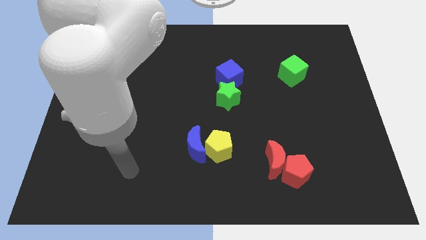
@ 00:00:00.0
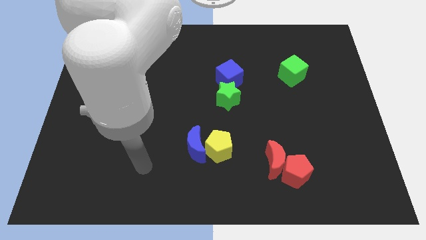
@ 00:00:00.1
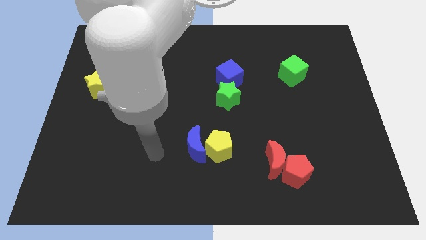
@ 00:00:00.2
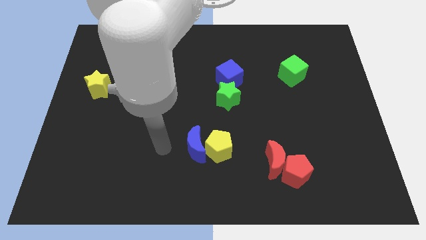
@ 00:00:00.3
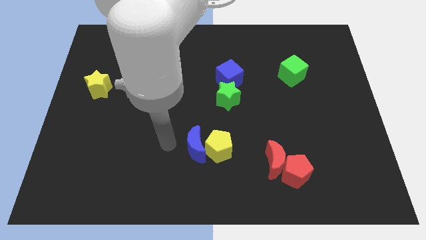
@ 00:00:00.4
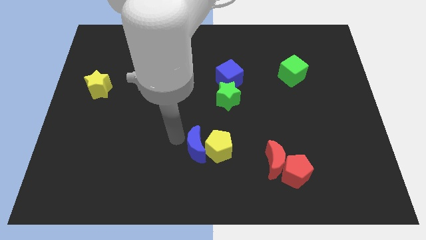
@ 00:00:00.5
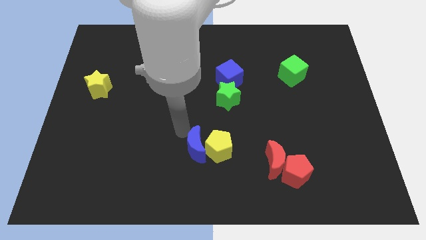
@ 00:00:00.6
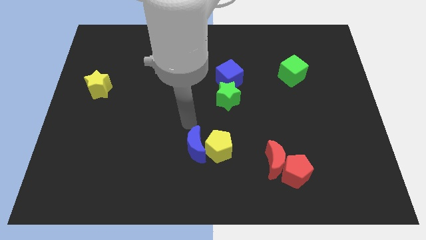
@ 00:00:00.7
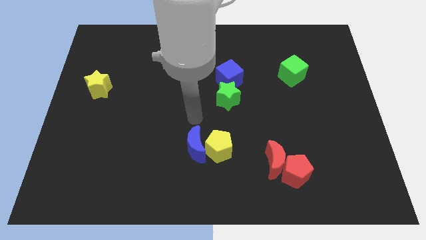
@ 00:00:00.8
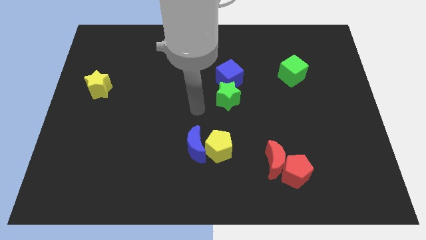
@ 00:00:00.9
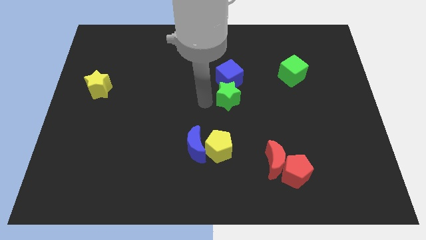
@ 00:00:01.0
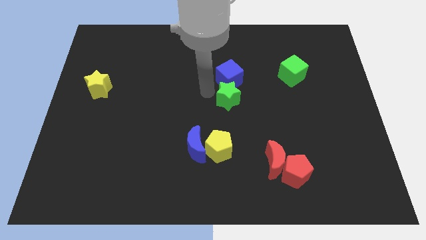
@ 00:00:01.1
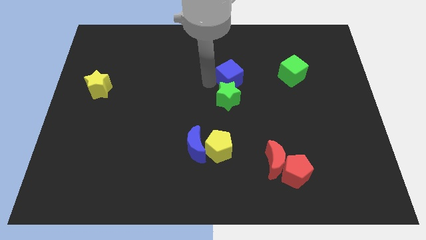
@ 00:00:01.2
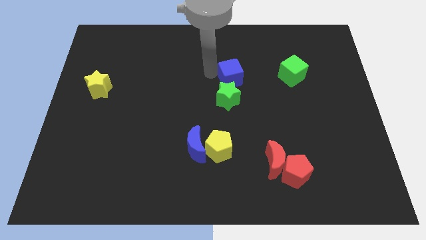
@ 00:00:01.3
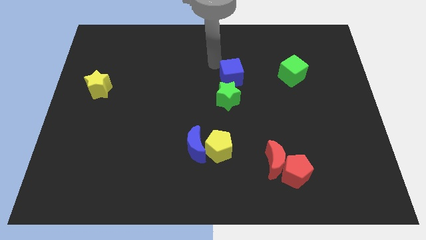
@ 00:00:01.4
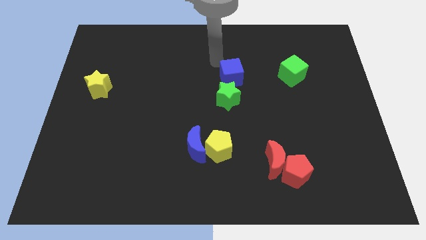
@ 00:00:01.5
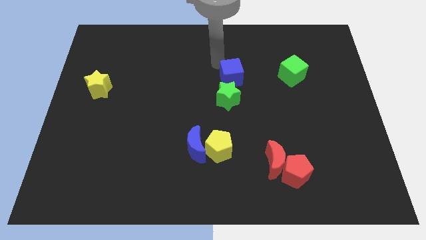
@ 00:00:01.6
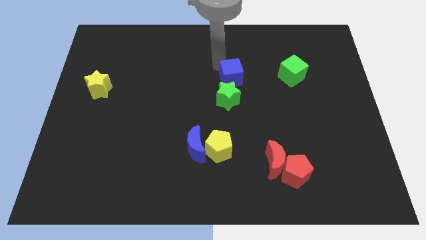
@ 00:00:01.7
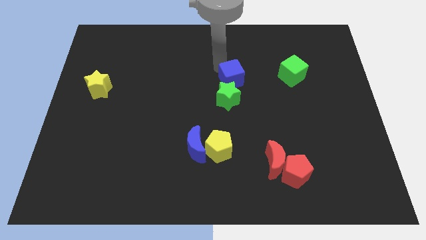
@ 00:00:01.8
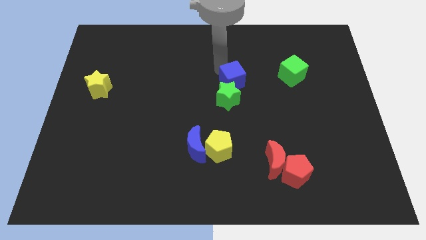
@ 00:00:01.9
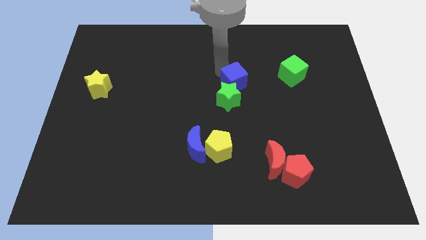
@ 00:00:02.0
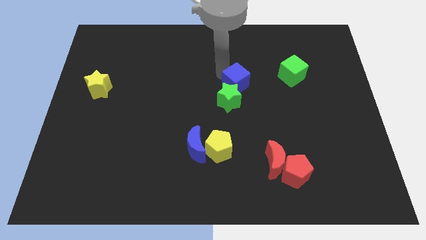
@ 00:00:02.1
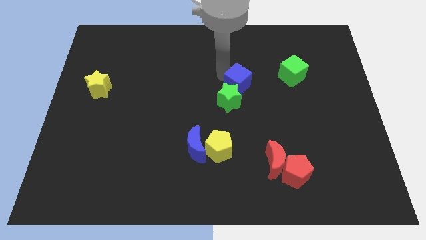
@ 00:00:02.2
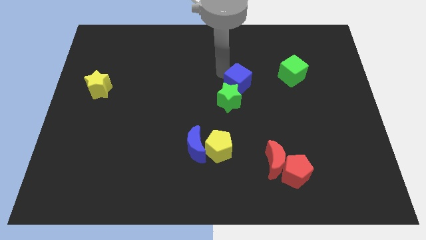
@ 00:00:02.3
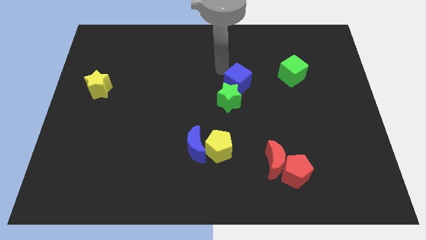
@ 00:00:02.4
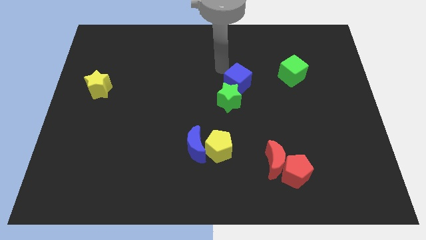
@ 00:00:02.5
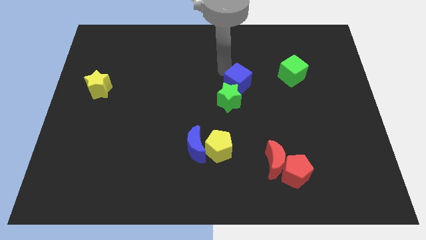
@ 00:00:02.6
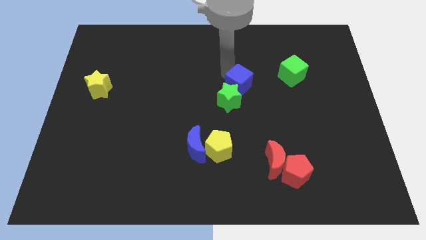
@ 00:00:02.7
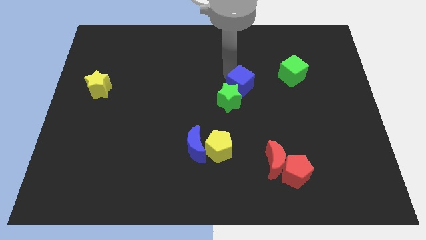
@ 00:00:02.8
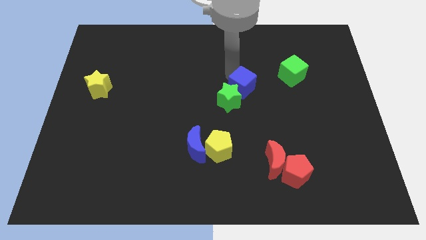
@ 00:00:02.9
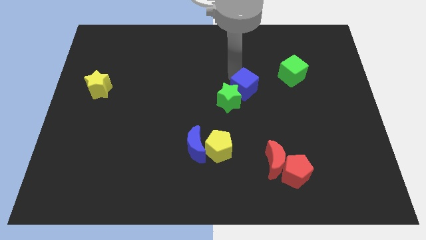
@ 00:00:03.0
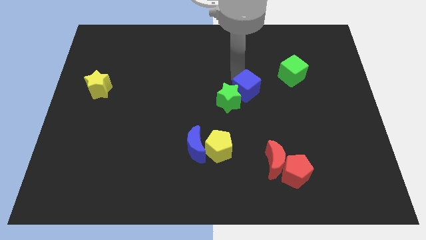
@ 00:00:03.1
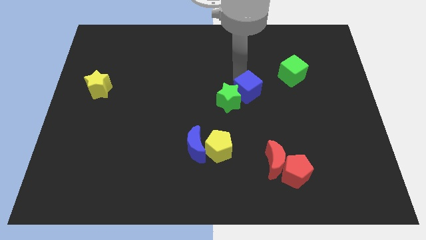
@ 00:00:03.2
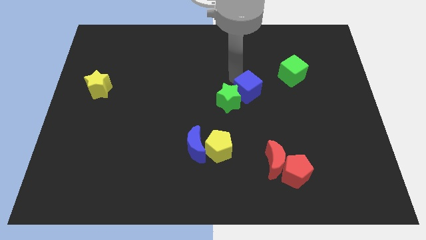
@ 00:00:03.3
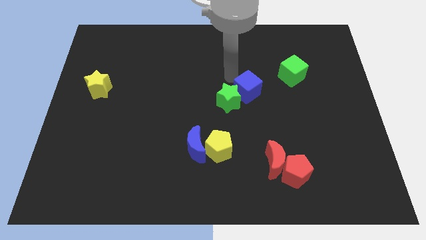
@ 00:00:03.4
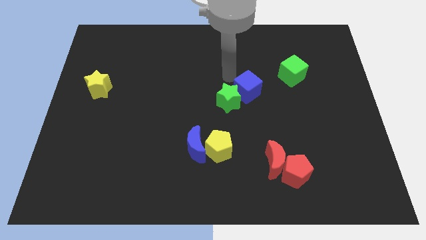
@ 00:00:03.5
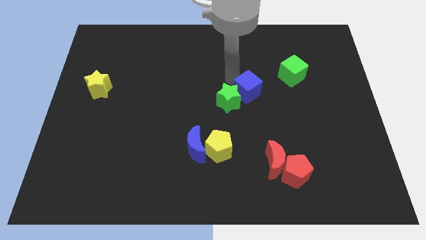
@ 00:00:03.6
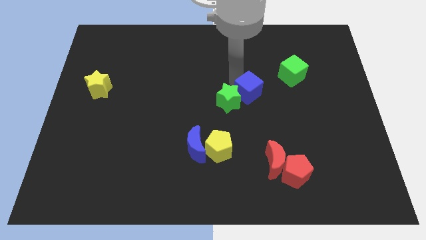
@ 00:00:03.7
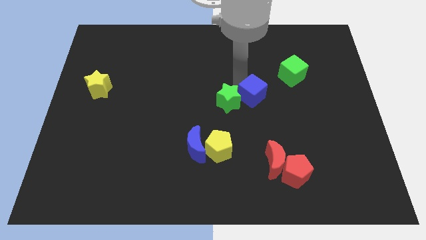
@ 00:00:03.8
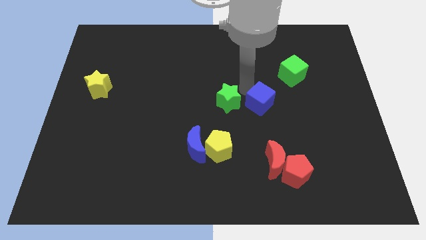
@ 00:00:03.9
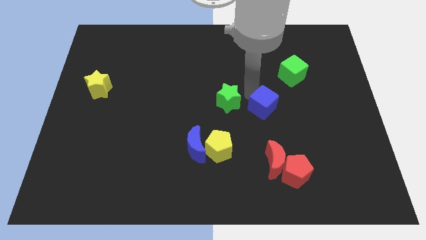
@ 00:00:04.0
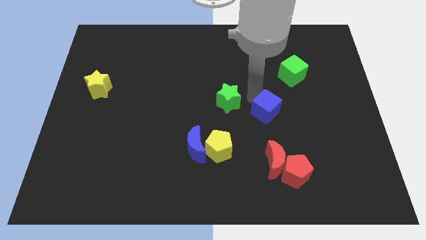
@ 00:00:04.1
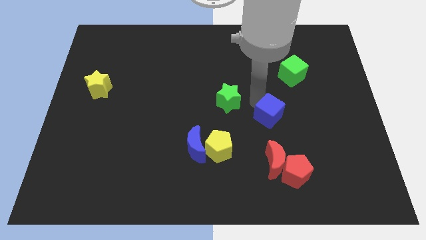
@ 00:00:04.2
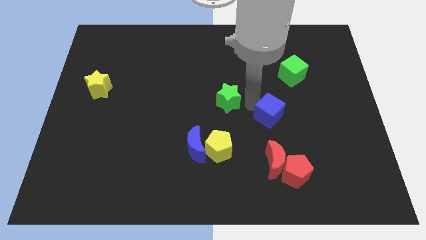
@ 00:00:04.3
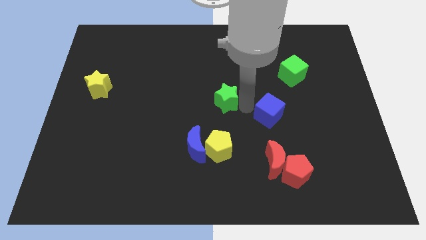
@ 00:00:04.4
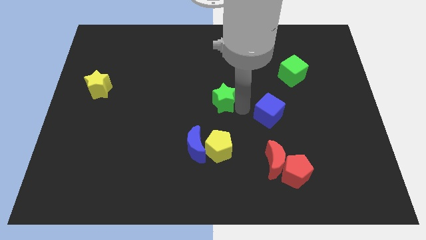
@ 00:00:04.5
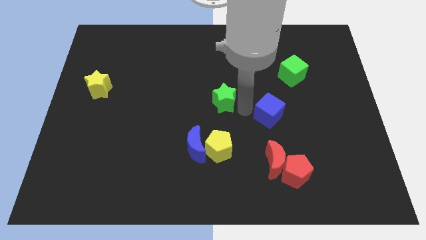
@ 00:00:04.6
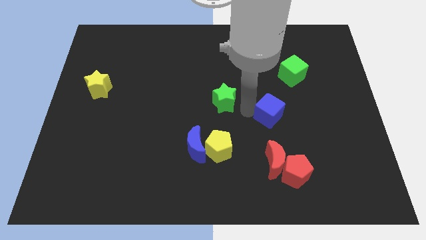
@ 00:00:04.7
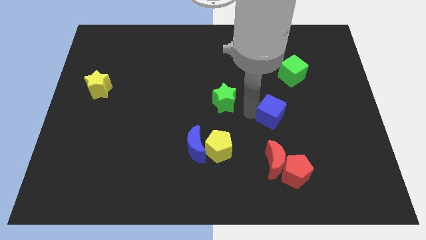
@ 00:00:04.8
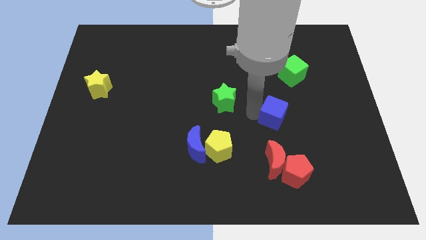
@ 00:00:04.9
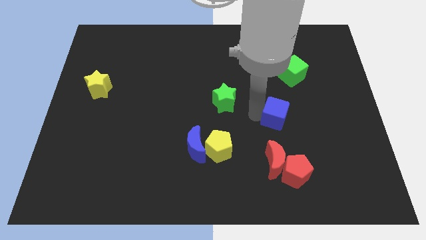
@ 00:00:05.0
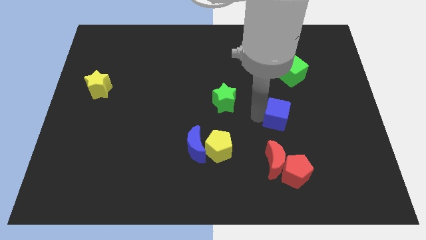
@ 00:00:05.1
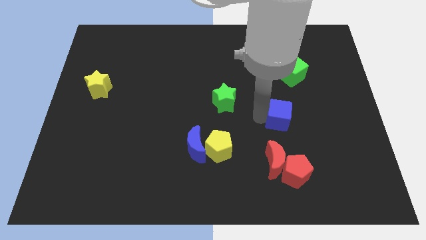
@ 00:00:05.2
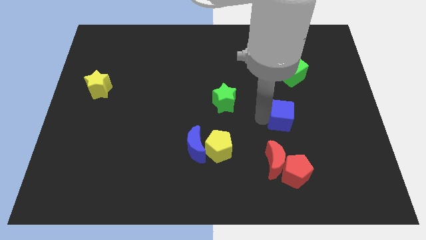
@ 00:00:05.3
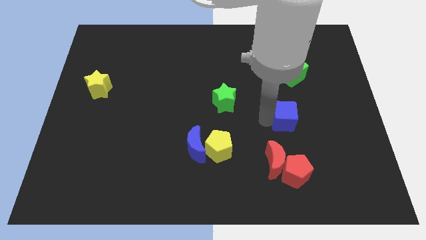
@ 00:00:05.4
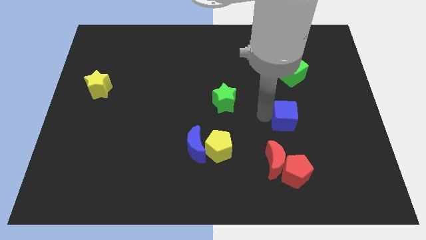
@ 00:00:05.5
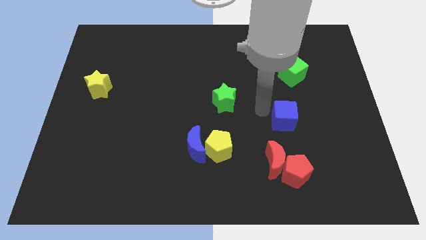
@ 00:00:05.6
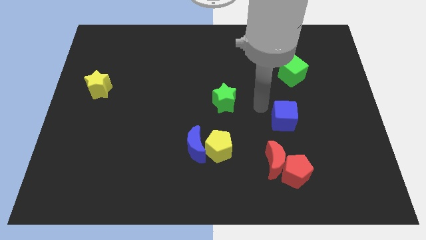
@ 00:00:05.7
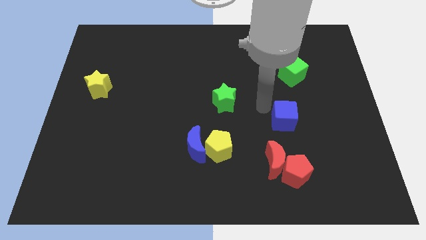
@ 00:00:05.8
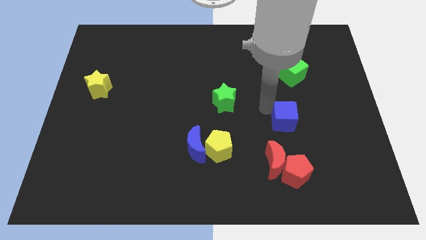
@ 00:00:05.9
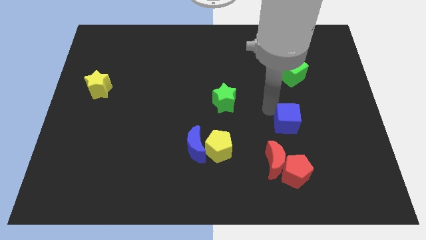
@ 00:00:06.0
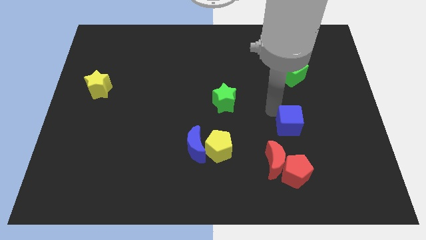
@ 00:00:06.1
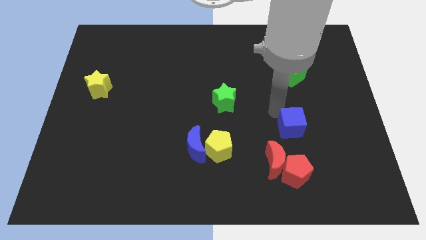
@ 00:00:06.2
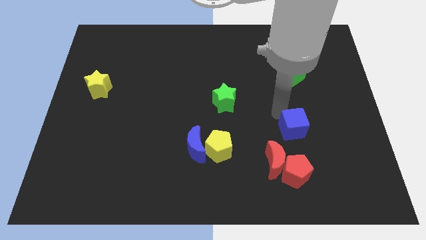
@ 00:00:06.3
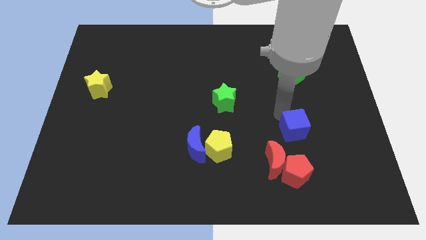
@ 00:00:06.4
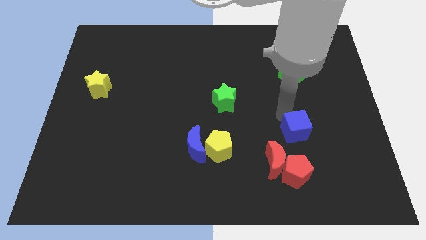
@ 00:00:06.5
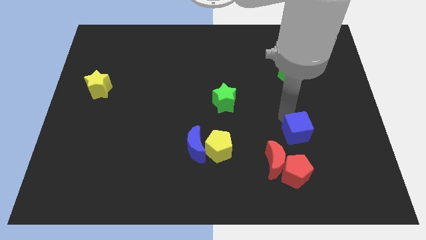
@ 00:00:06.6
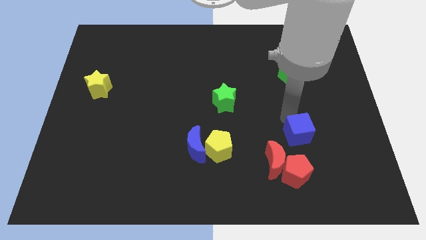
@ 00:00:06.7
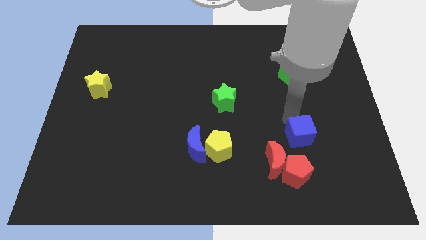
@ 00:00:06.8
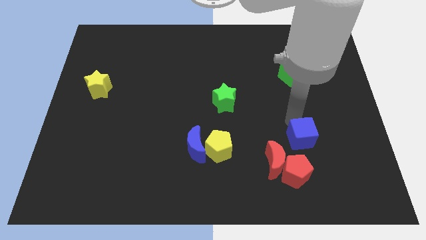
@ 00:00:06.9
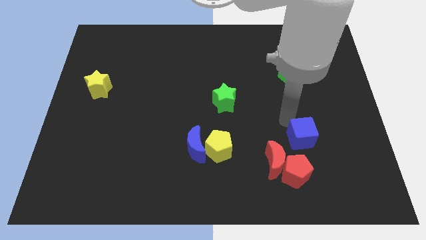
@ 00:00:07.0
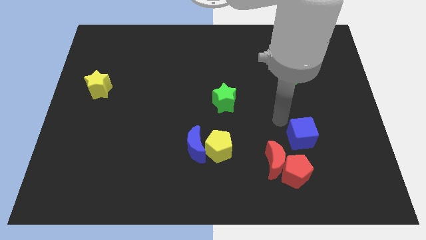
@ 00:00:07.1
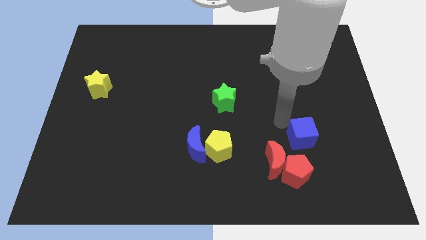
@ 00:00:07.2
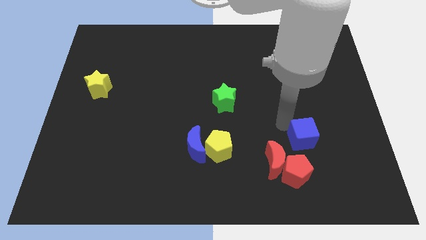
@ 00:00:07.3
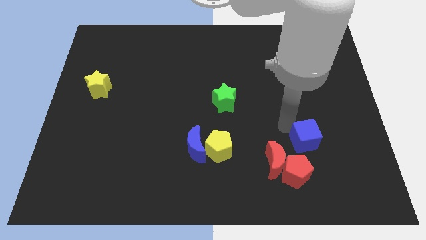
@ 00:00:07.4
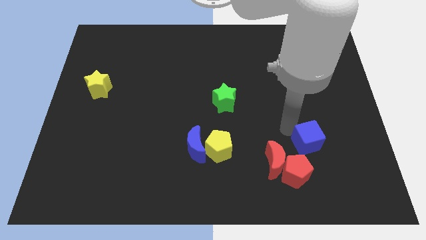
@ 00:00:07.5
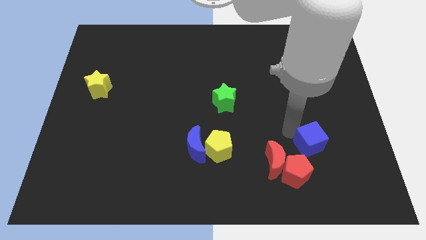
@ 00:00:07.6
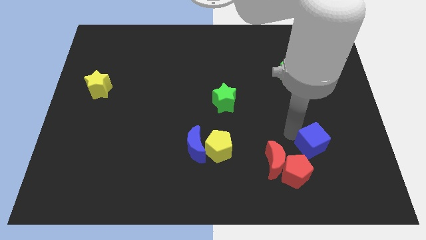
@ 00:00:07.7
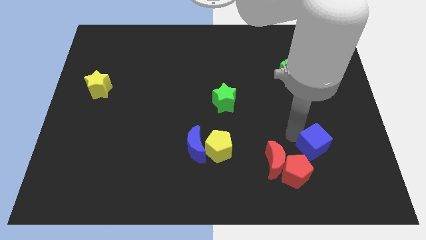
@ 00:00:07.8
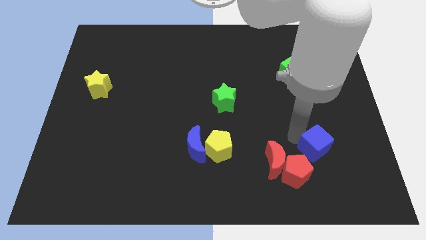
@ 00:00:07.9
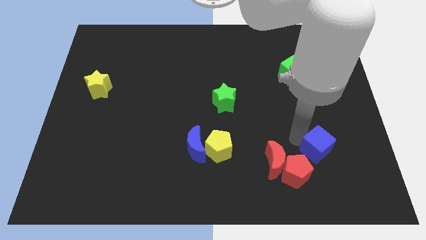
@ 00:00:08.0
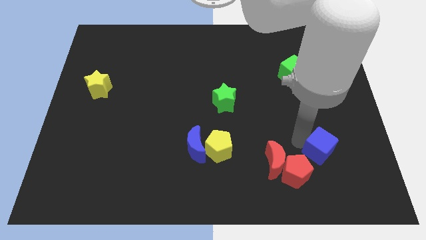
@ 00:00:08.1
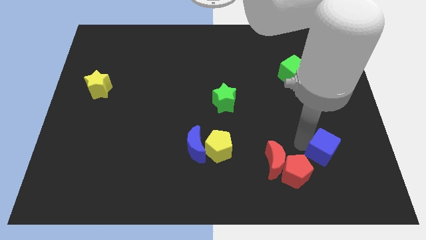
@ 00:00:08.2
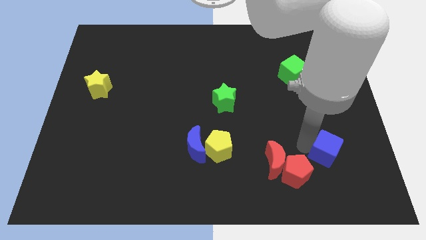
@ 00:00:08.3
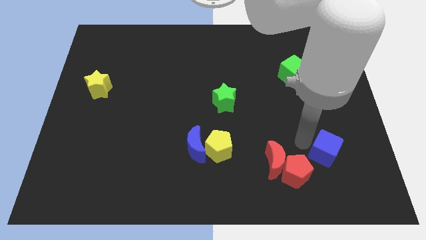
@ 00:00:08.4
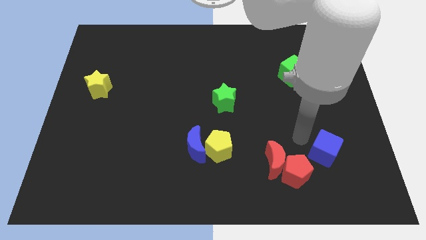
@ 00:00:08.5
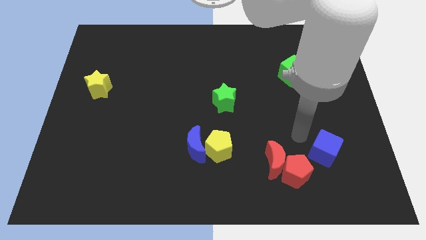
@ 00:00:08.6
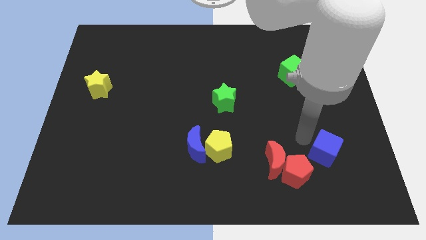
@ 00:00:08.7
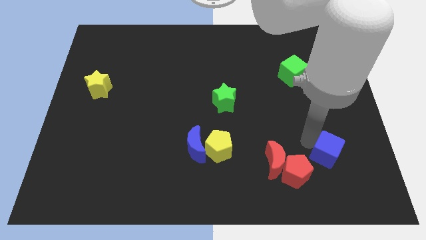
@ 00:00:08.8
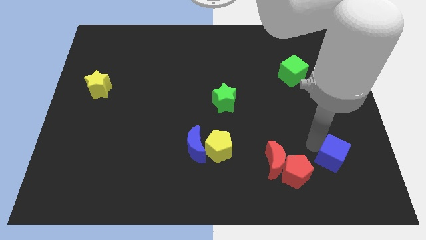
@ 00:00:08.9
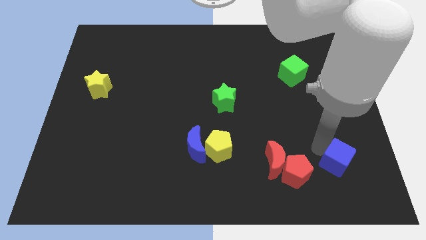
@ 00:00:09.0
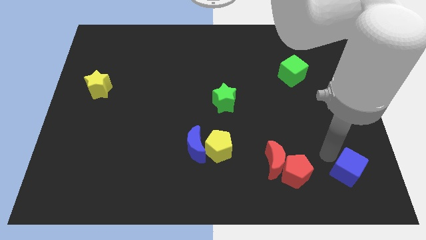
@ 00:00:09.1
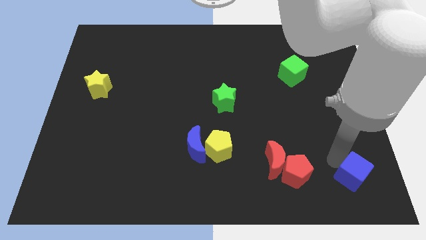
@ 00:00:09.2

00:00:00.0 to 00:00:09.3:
put the blue cube to the bottom right corner
